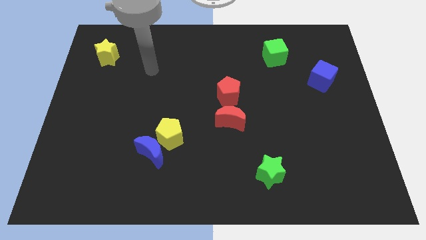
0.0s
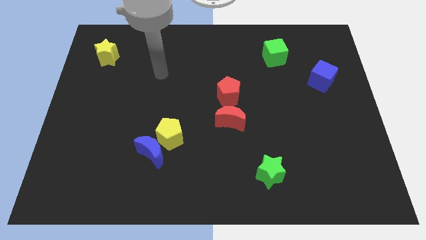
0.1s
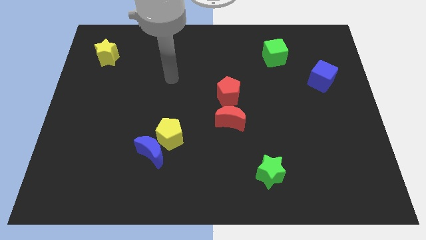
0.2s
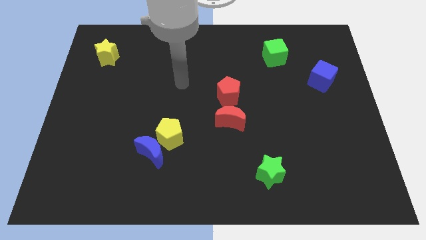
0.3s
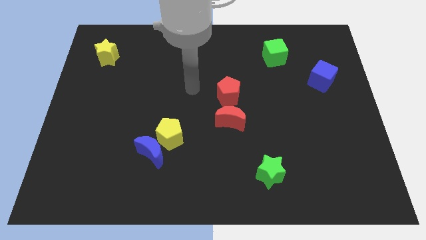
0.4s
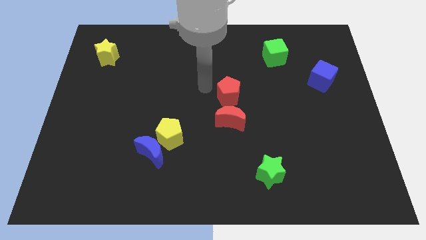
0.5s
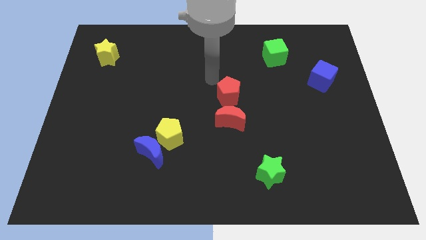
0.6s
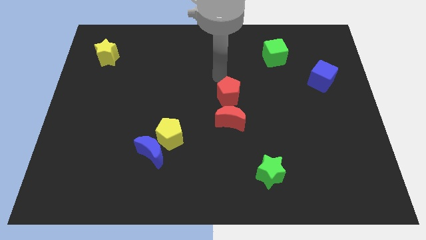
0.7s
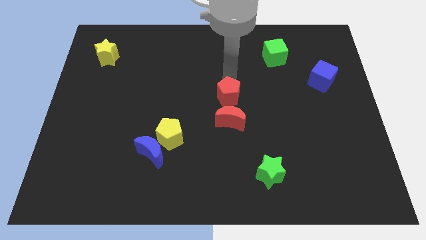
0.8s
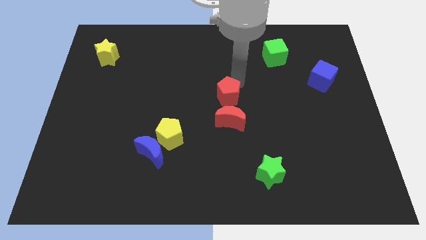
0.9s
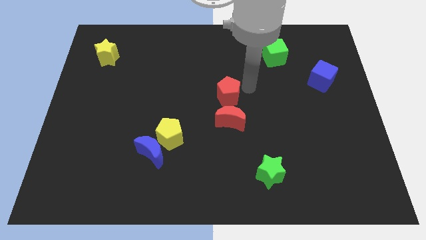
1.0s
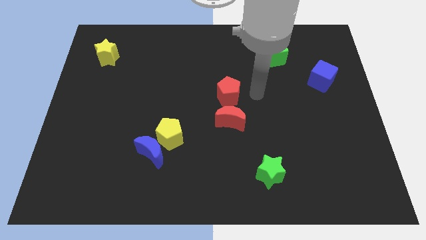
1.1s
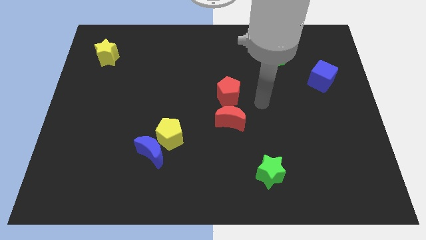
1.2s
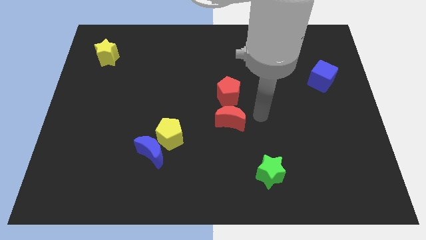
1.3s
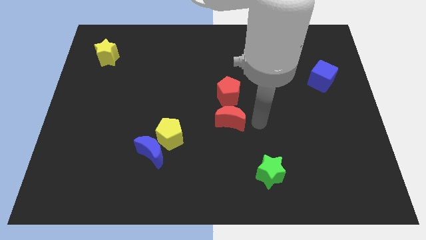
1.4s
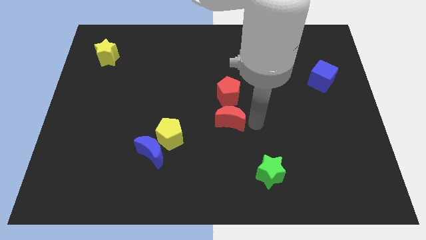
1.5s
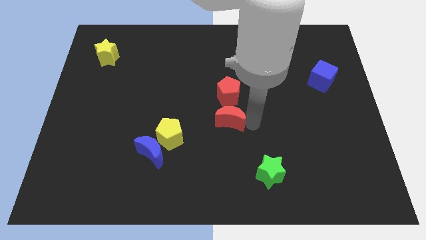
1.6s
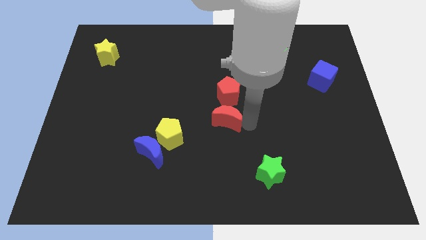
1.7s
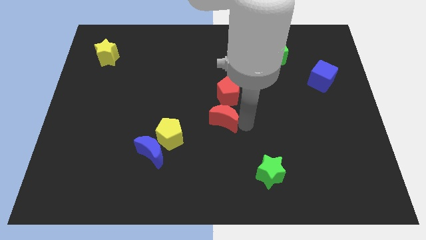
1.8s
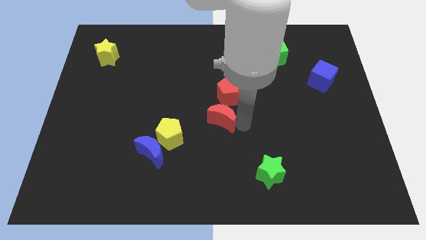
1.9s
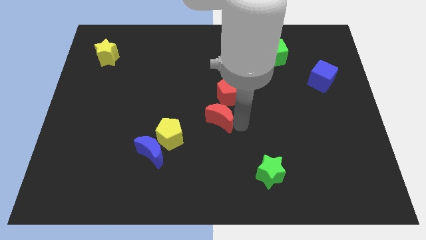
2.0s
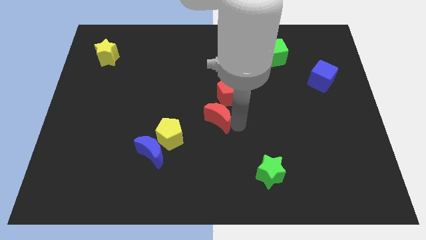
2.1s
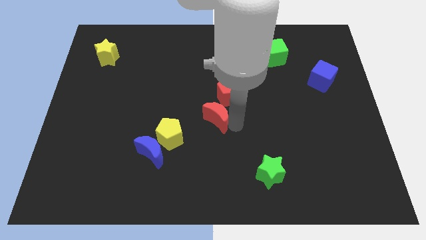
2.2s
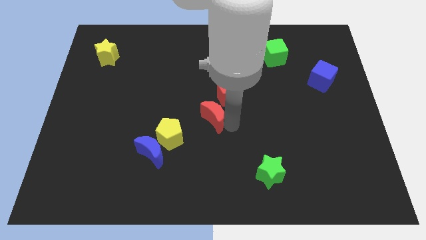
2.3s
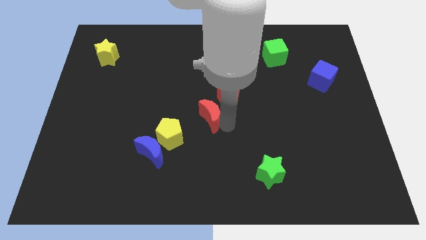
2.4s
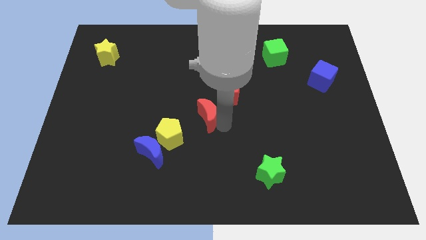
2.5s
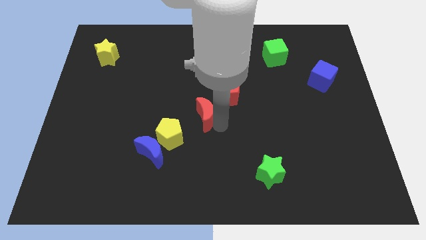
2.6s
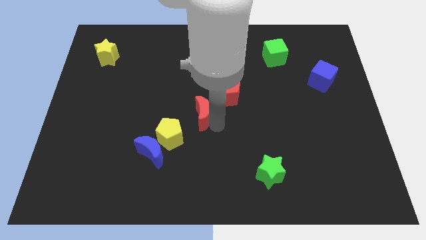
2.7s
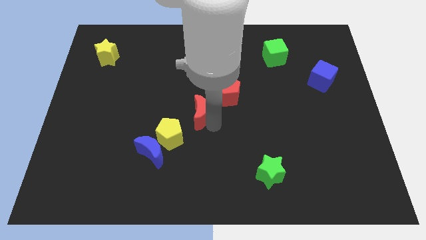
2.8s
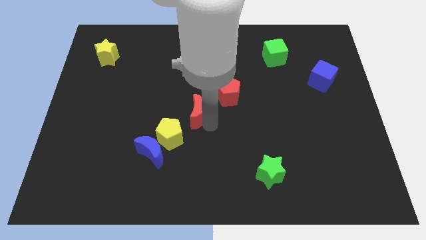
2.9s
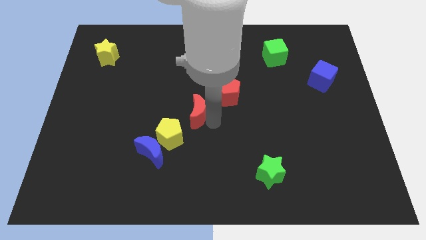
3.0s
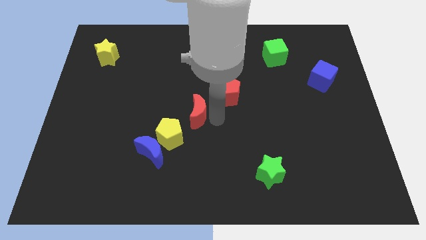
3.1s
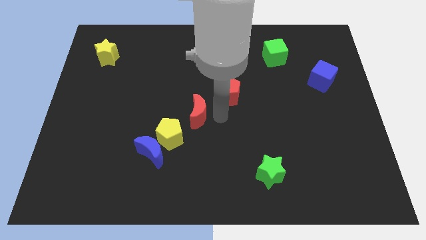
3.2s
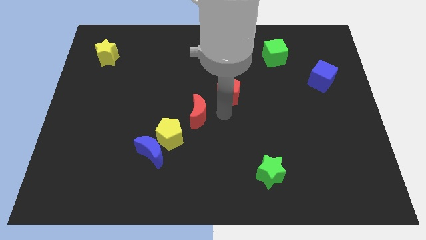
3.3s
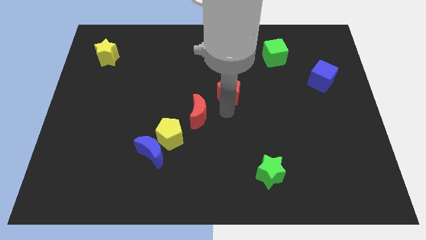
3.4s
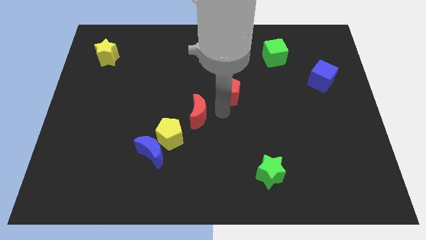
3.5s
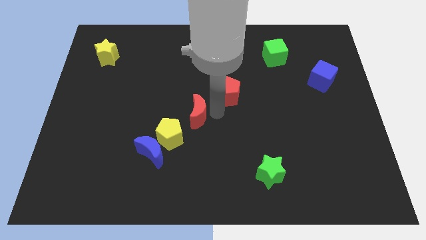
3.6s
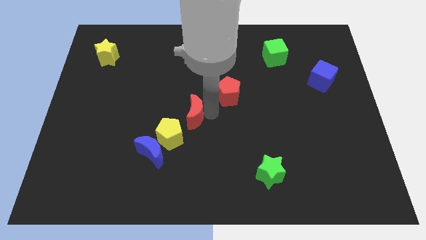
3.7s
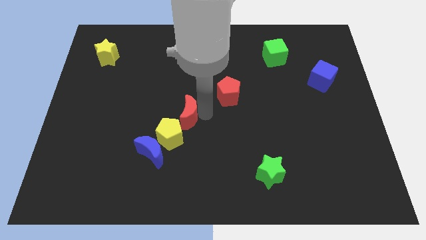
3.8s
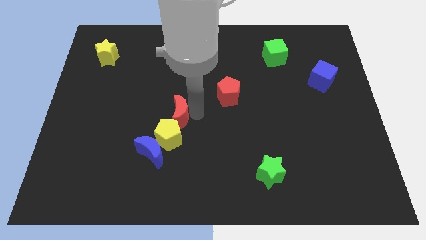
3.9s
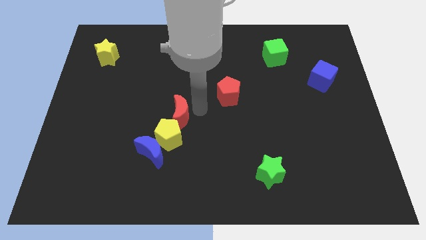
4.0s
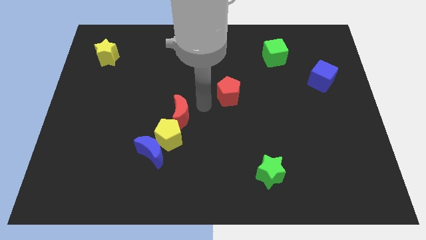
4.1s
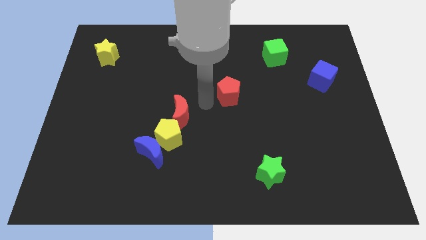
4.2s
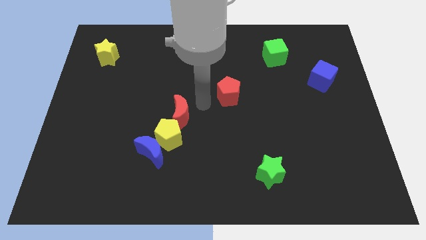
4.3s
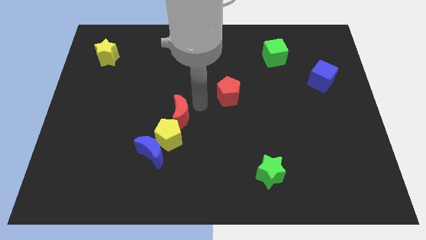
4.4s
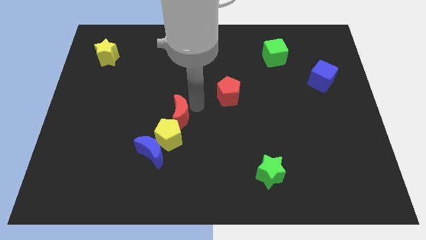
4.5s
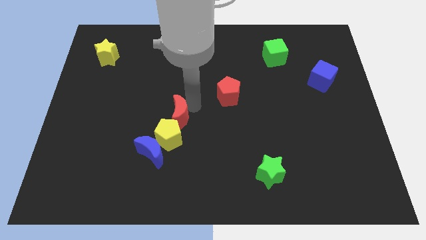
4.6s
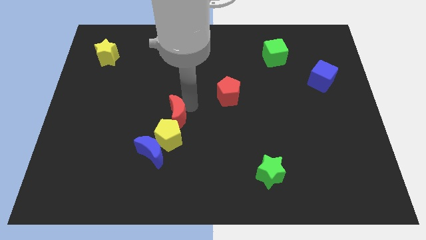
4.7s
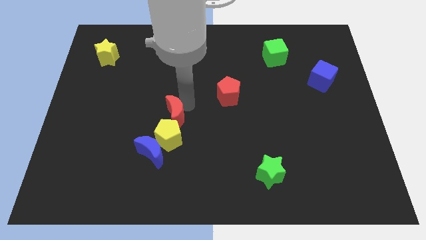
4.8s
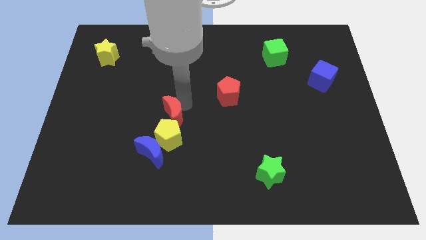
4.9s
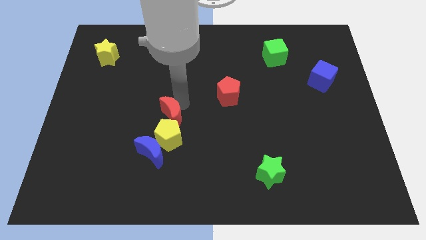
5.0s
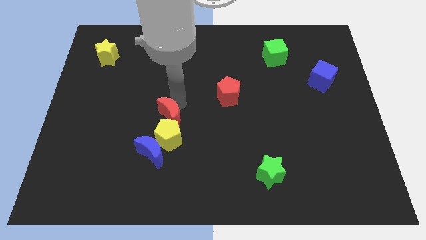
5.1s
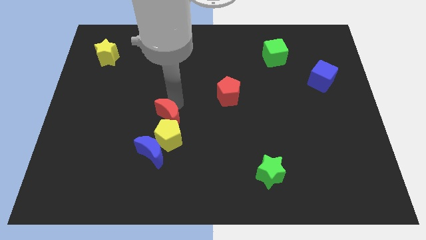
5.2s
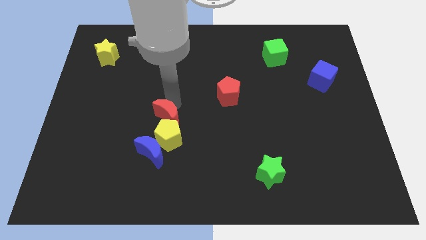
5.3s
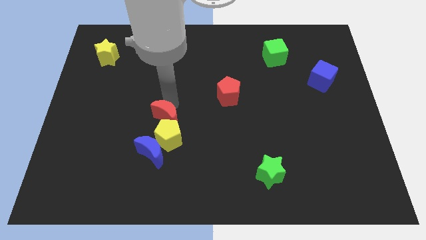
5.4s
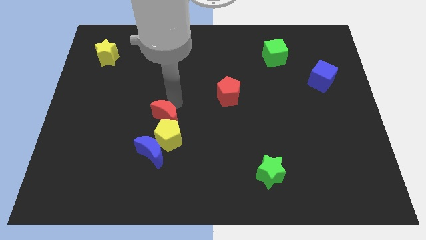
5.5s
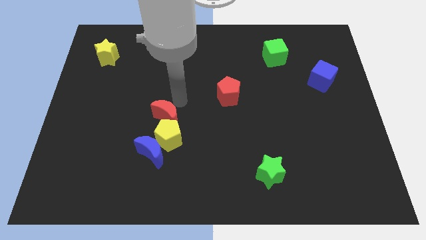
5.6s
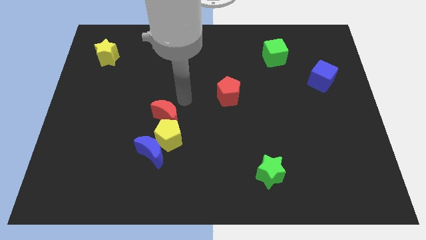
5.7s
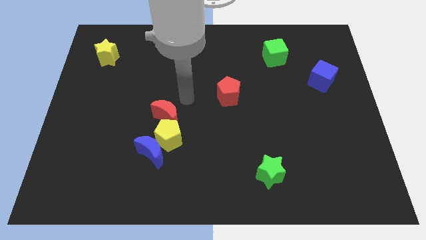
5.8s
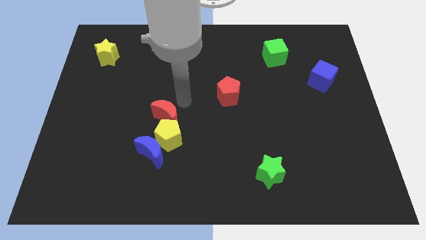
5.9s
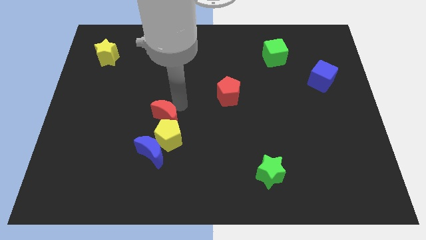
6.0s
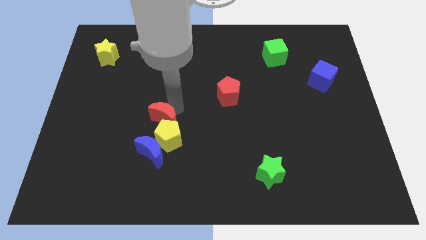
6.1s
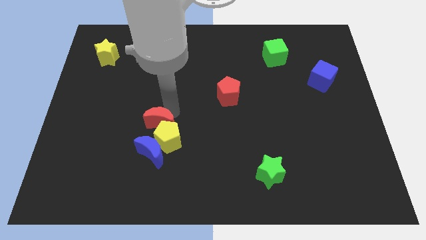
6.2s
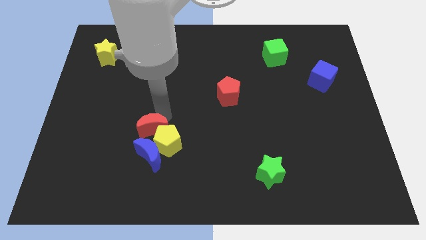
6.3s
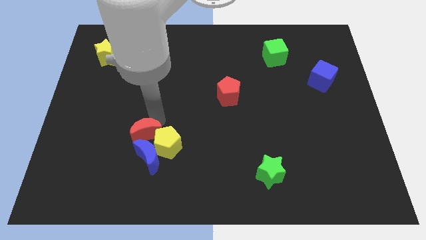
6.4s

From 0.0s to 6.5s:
push the red moon close to the blue moon
